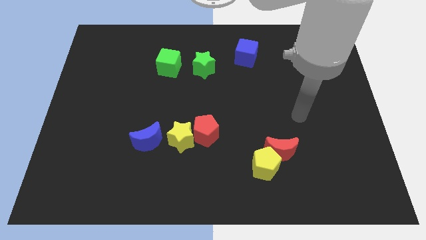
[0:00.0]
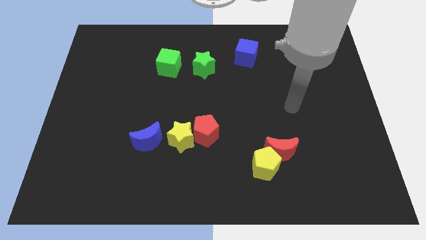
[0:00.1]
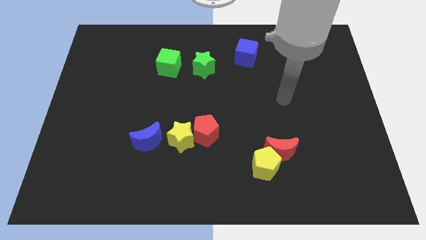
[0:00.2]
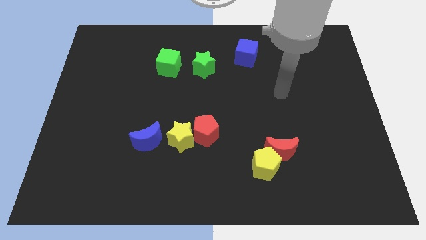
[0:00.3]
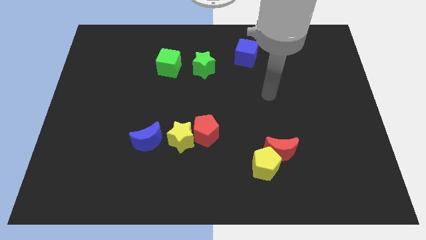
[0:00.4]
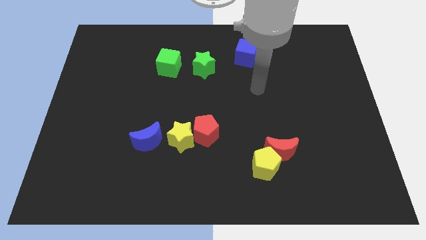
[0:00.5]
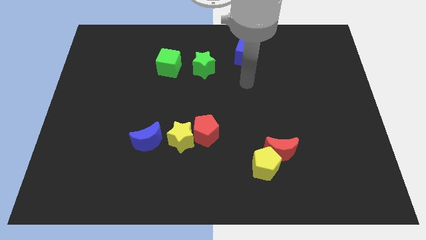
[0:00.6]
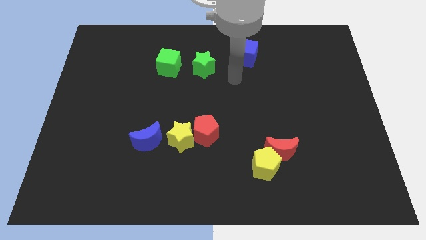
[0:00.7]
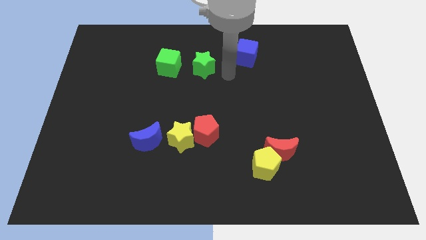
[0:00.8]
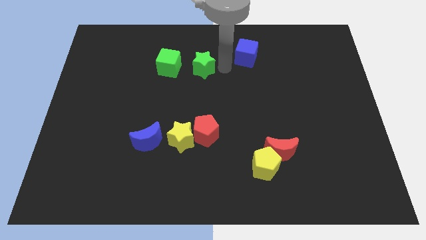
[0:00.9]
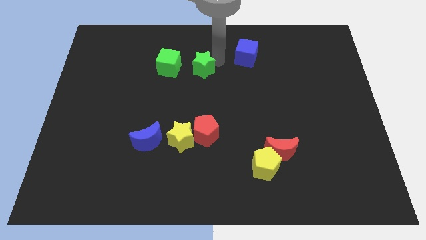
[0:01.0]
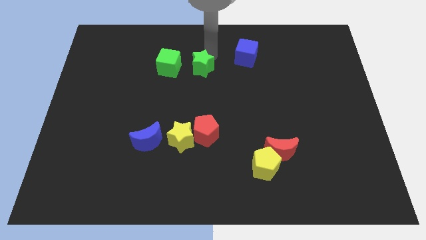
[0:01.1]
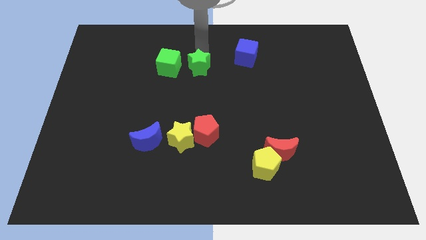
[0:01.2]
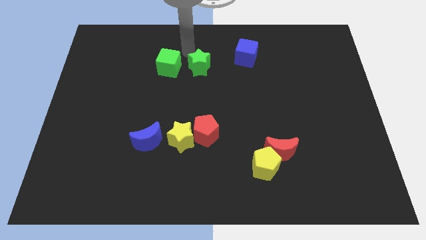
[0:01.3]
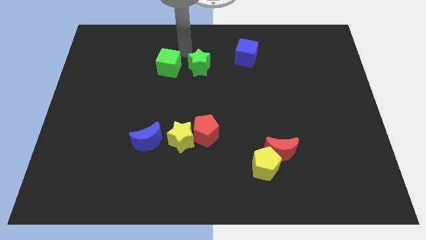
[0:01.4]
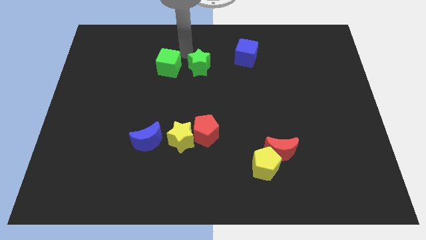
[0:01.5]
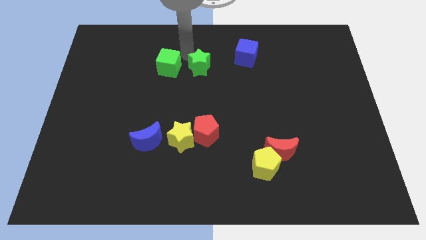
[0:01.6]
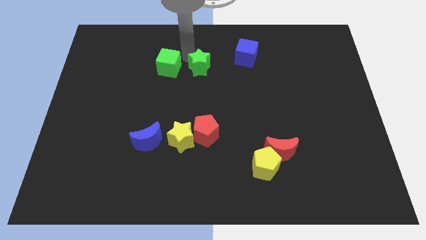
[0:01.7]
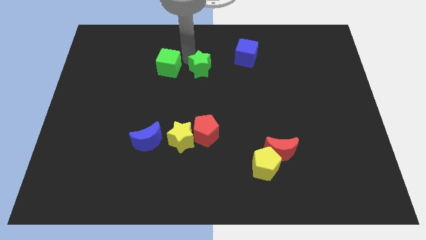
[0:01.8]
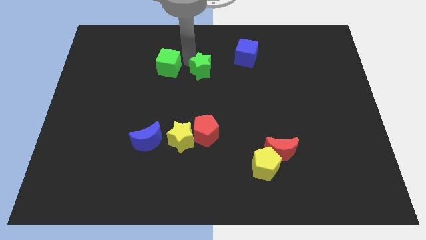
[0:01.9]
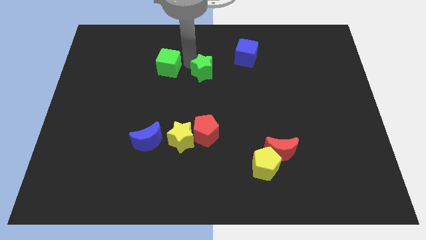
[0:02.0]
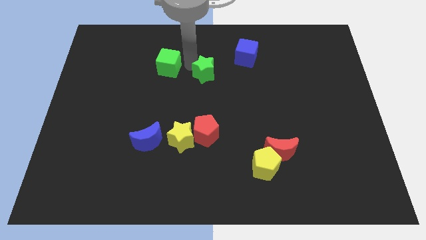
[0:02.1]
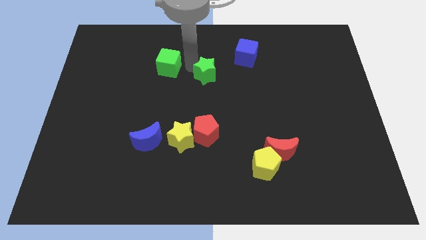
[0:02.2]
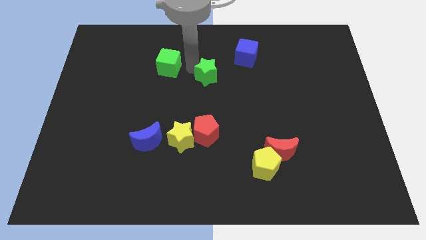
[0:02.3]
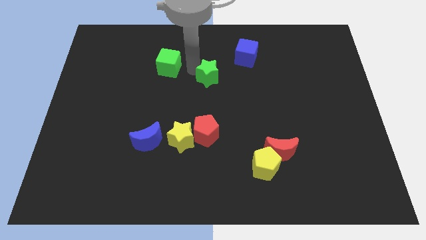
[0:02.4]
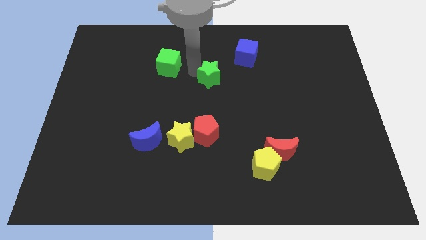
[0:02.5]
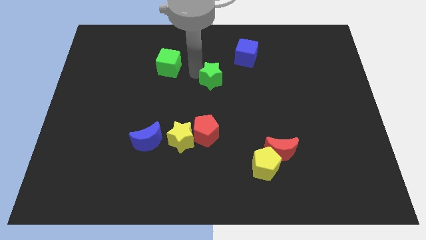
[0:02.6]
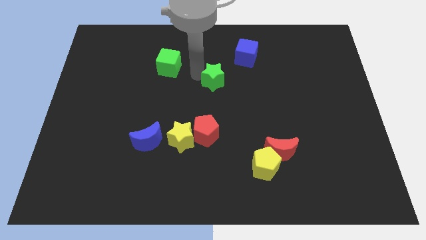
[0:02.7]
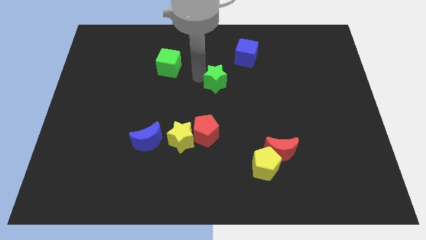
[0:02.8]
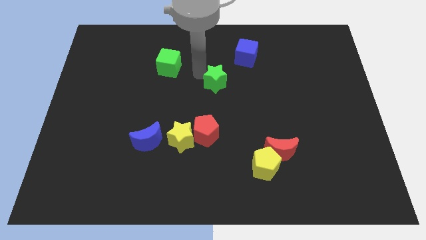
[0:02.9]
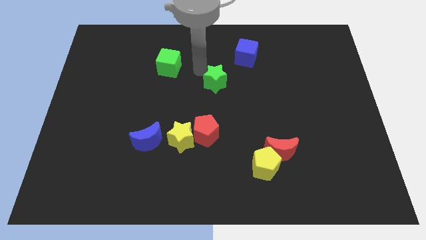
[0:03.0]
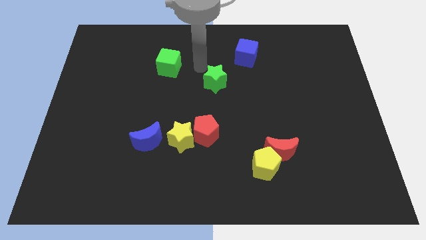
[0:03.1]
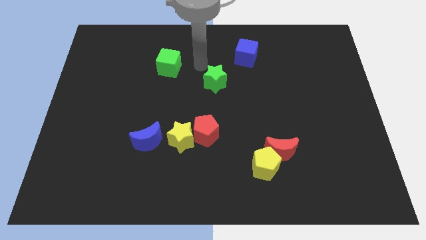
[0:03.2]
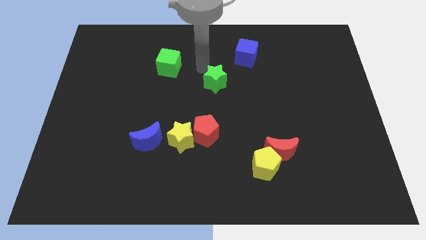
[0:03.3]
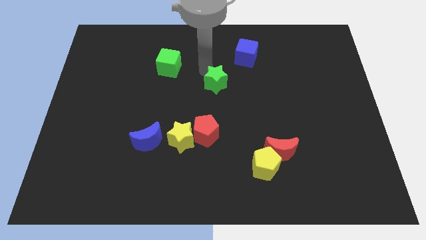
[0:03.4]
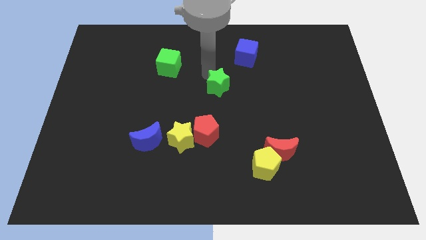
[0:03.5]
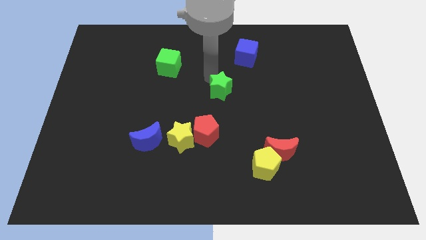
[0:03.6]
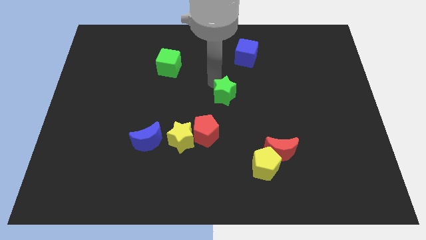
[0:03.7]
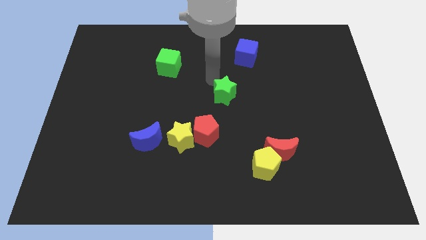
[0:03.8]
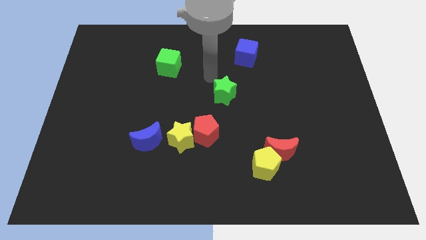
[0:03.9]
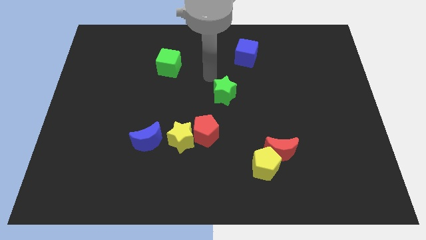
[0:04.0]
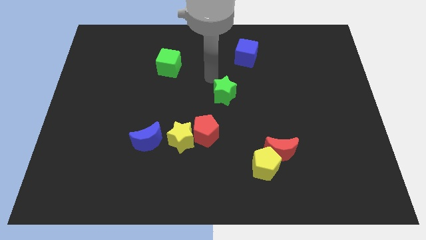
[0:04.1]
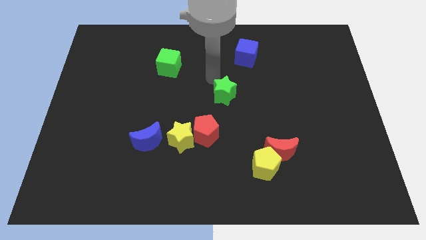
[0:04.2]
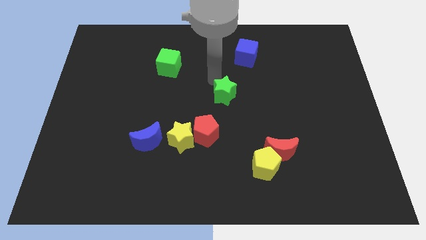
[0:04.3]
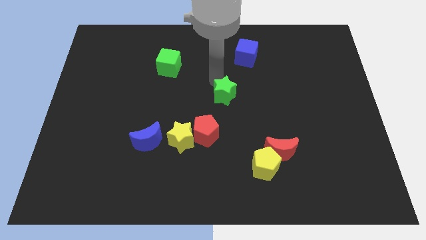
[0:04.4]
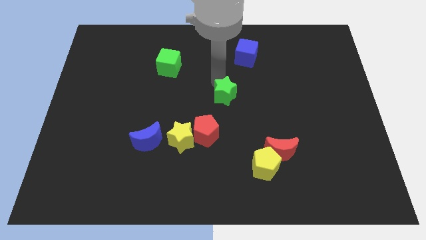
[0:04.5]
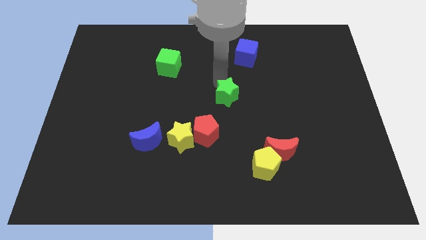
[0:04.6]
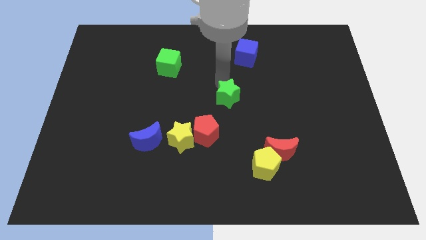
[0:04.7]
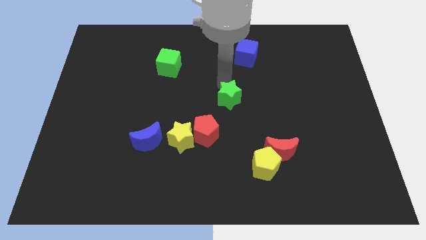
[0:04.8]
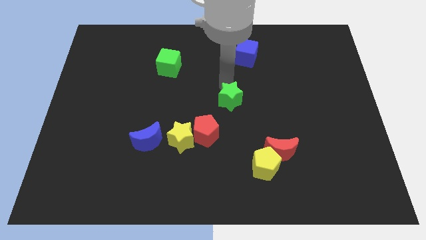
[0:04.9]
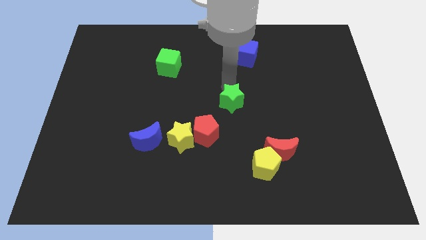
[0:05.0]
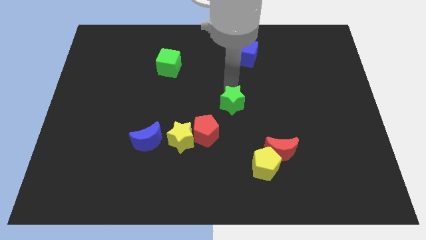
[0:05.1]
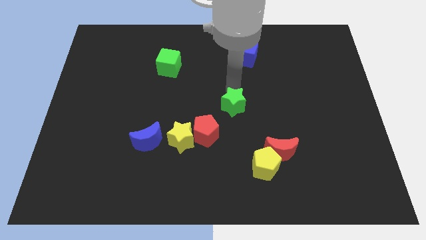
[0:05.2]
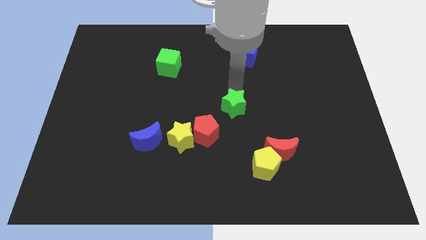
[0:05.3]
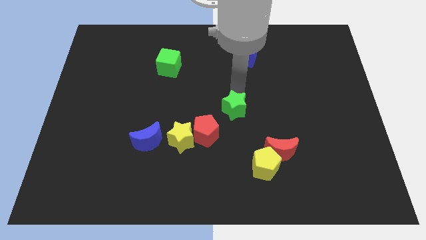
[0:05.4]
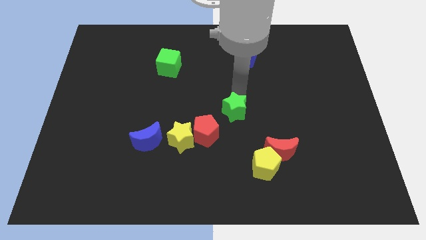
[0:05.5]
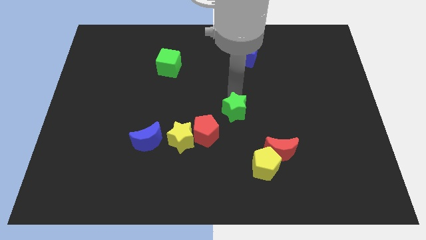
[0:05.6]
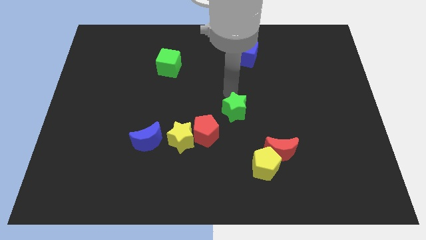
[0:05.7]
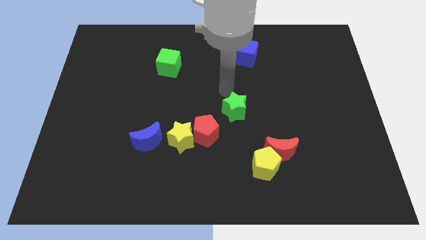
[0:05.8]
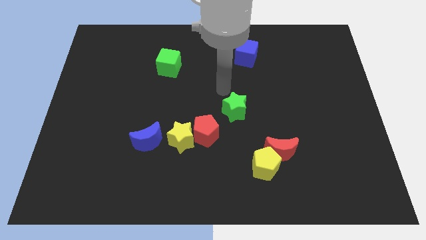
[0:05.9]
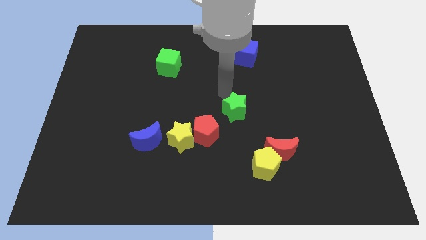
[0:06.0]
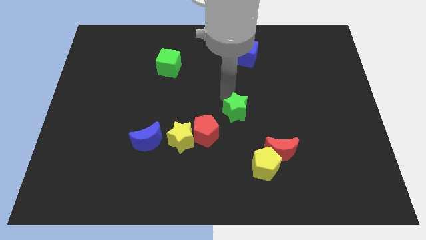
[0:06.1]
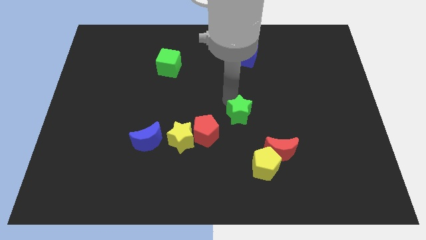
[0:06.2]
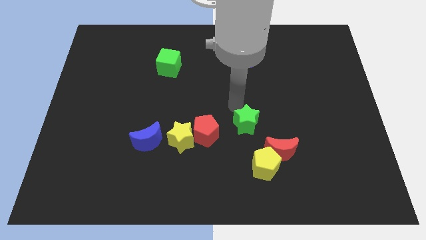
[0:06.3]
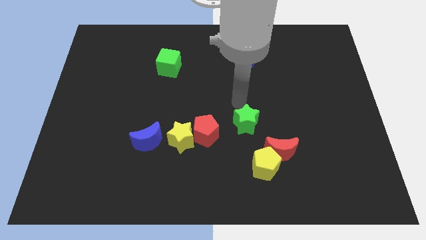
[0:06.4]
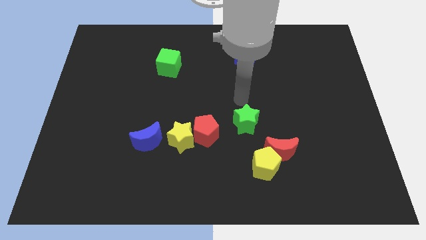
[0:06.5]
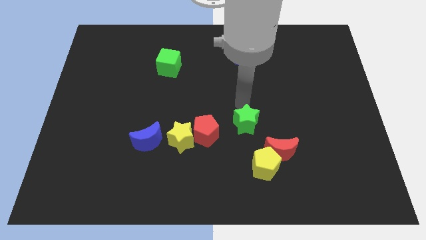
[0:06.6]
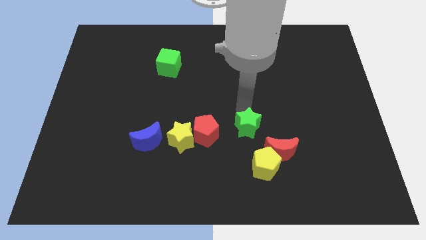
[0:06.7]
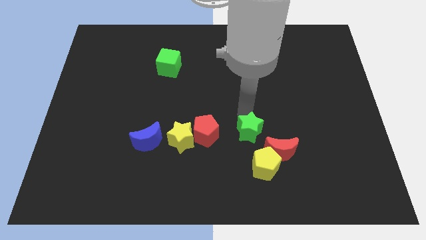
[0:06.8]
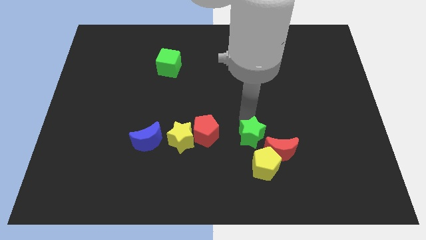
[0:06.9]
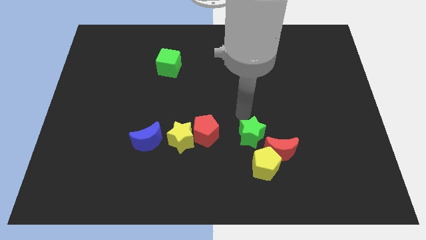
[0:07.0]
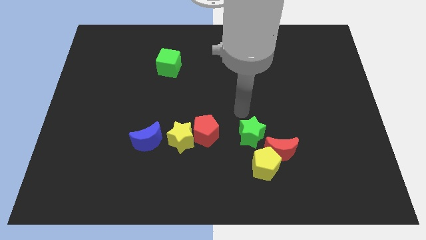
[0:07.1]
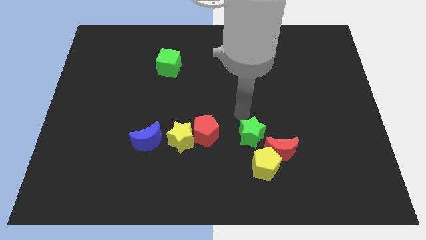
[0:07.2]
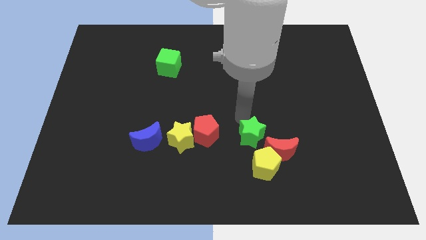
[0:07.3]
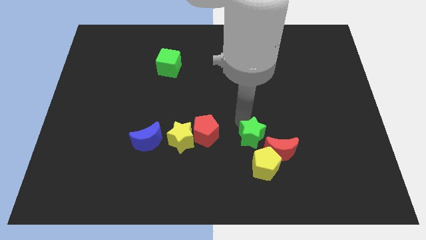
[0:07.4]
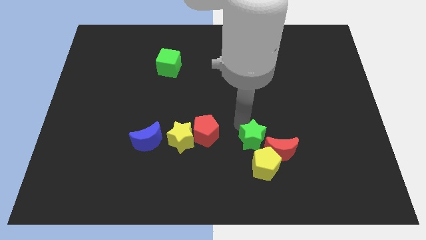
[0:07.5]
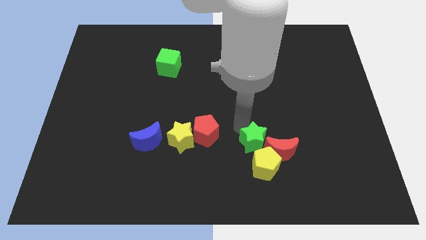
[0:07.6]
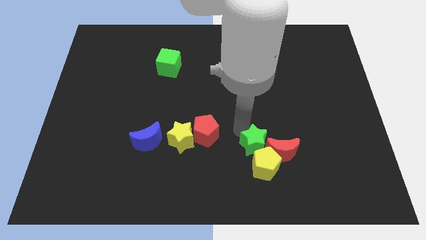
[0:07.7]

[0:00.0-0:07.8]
push the green star close to the yellow pentagon
